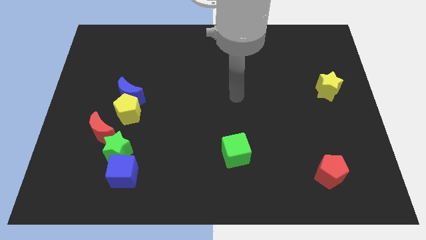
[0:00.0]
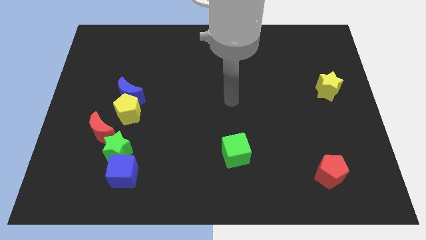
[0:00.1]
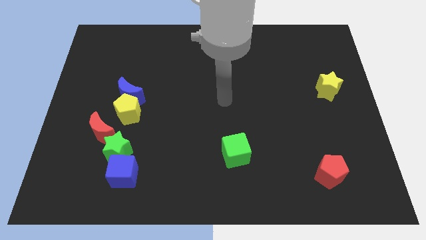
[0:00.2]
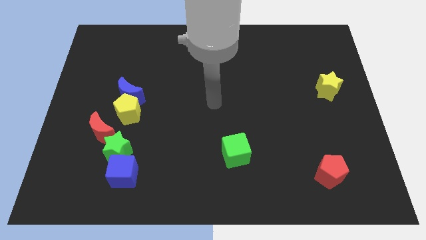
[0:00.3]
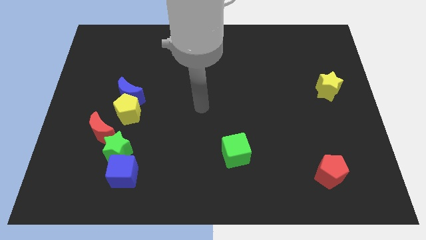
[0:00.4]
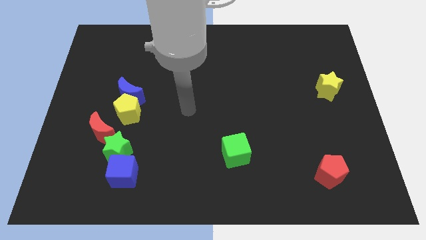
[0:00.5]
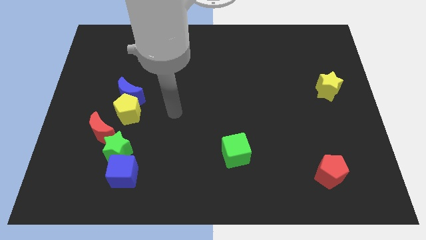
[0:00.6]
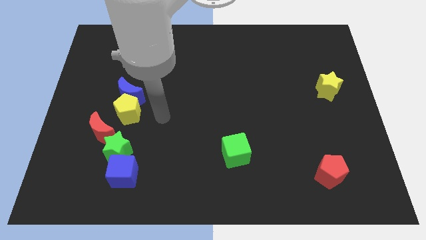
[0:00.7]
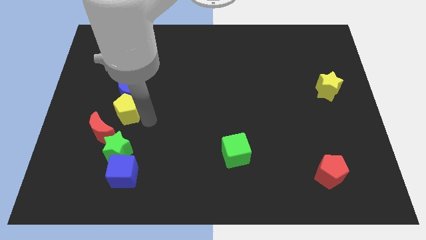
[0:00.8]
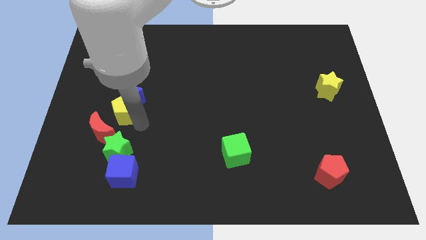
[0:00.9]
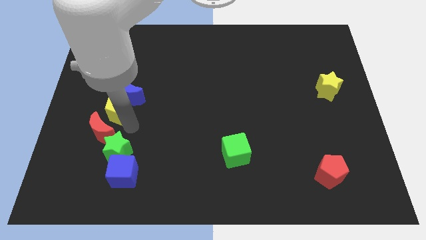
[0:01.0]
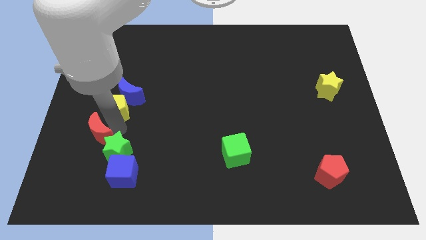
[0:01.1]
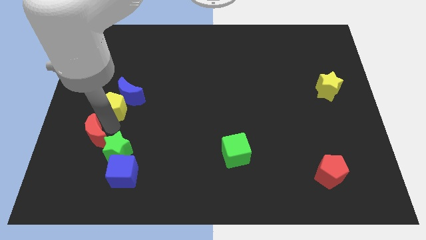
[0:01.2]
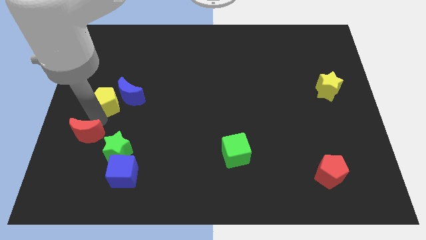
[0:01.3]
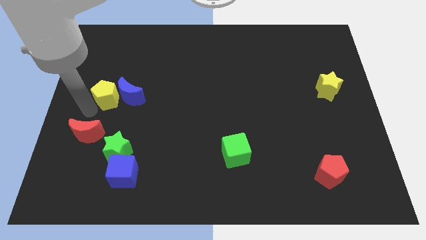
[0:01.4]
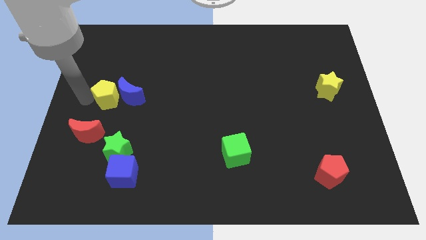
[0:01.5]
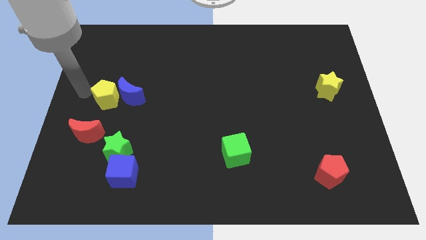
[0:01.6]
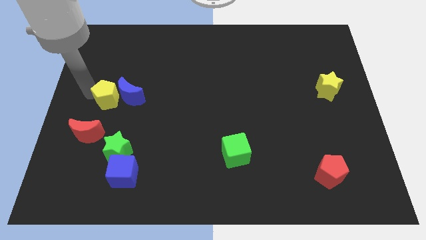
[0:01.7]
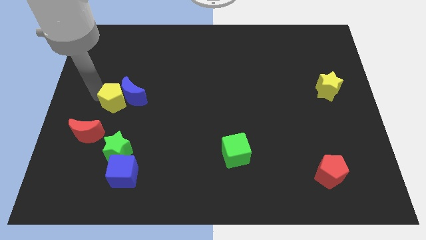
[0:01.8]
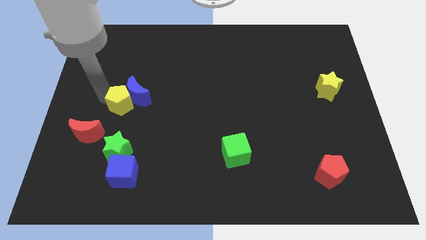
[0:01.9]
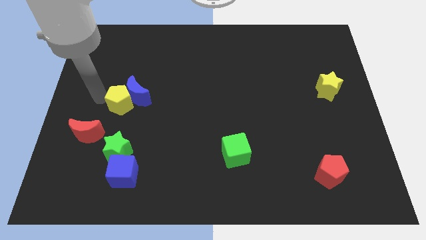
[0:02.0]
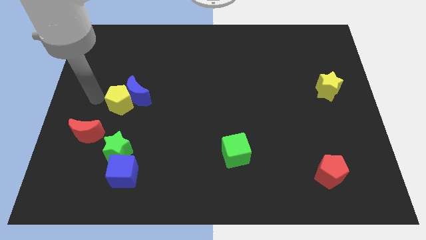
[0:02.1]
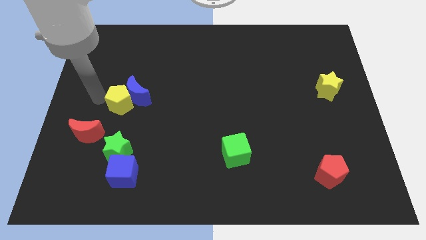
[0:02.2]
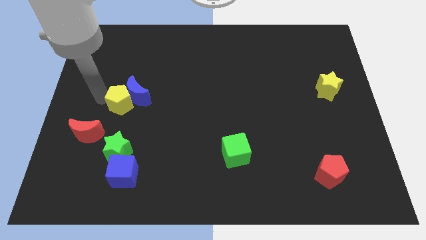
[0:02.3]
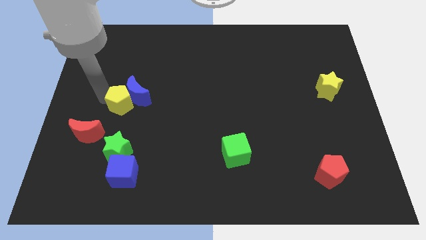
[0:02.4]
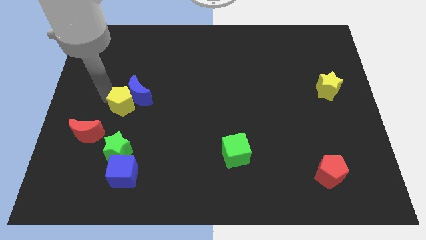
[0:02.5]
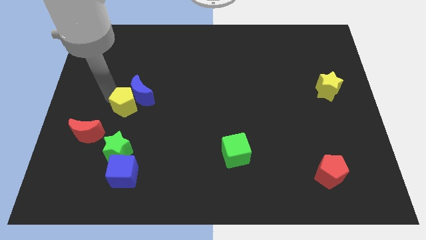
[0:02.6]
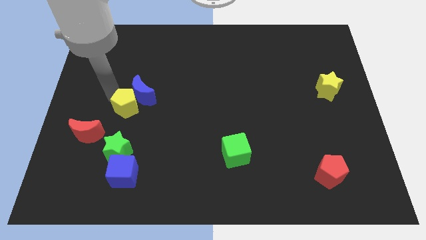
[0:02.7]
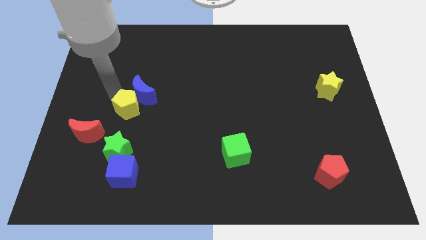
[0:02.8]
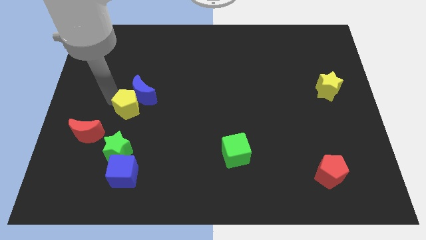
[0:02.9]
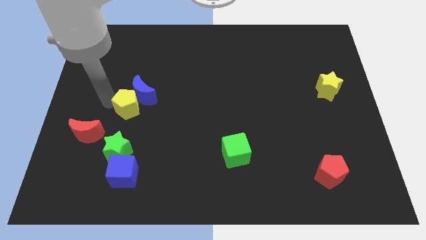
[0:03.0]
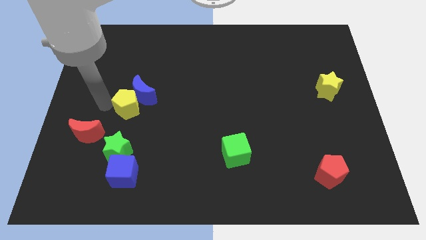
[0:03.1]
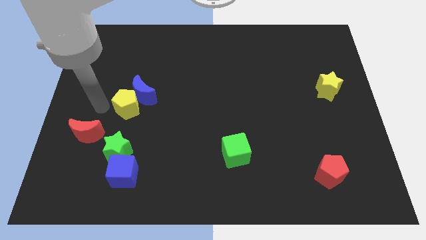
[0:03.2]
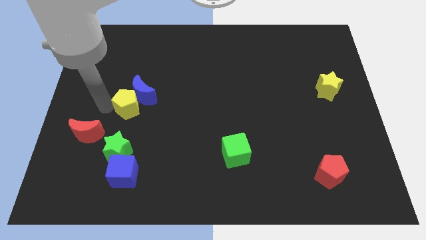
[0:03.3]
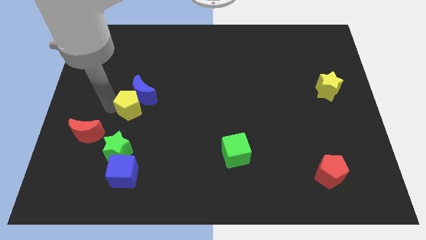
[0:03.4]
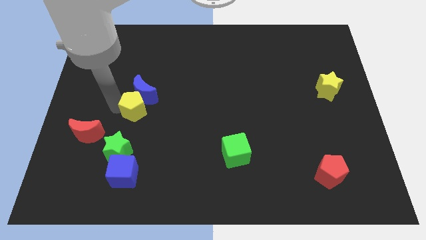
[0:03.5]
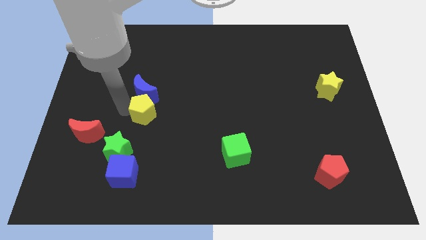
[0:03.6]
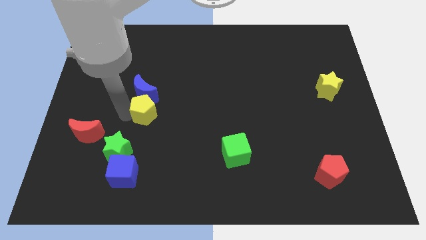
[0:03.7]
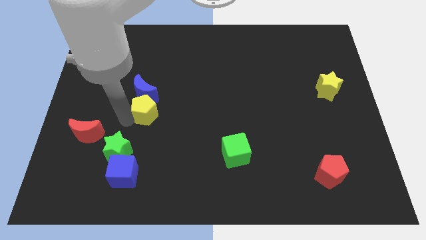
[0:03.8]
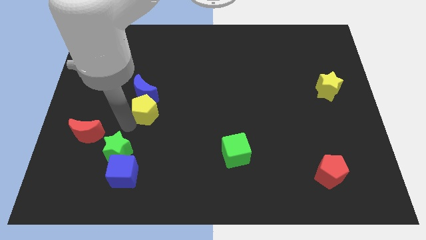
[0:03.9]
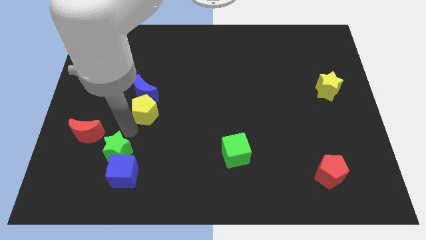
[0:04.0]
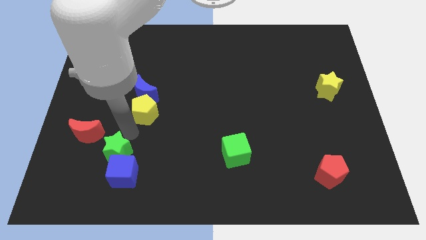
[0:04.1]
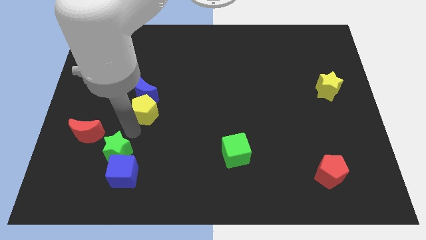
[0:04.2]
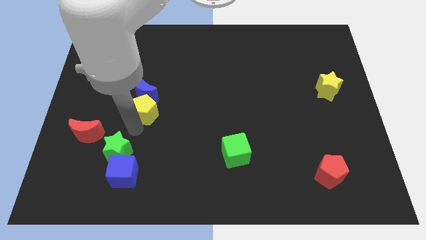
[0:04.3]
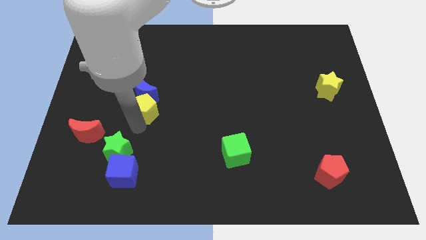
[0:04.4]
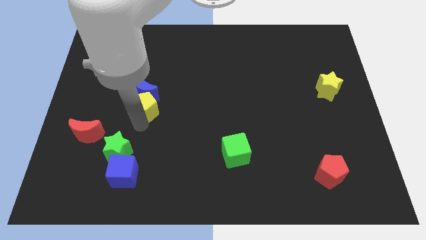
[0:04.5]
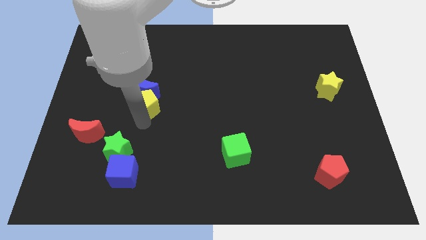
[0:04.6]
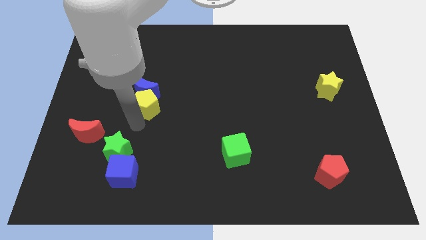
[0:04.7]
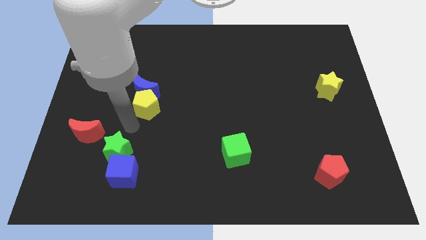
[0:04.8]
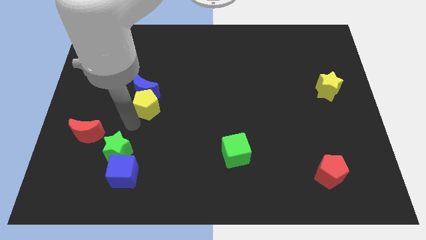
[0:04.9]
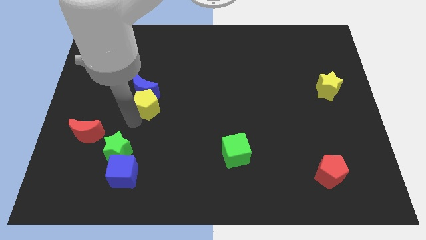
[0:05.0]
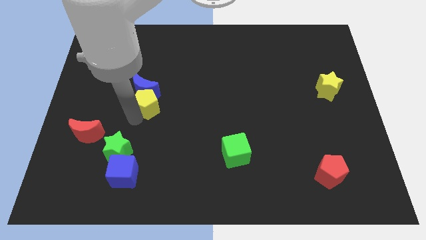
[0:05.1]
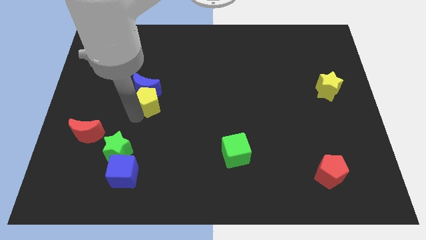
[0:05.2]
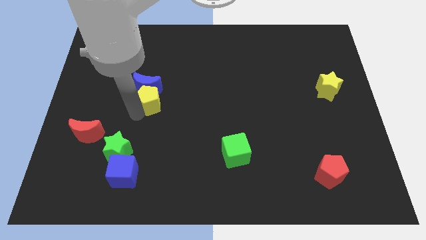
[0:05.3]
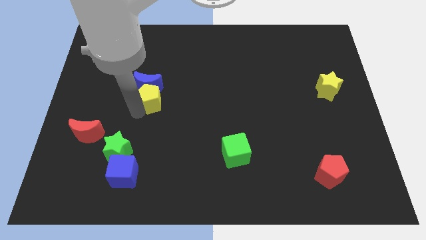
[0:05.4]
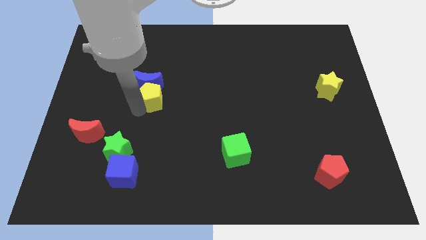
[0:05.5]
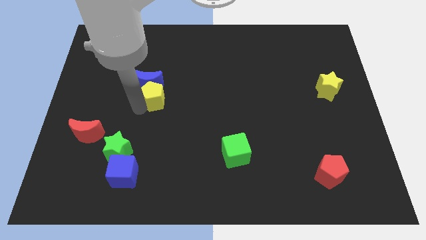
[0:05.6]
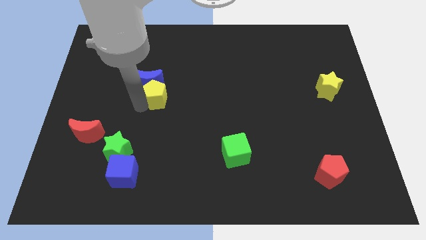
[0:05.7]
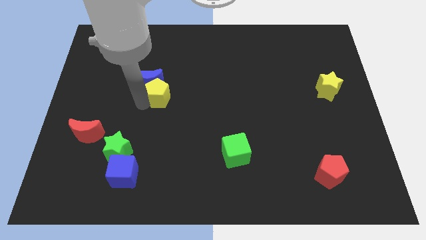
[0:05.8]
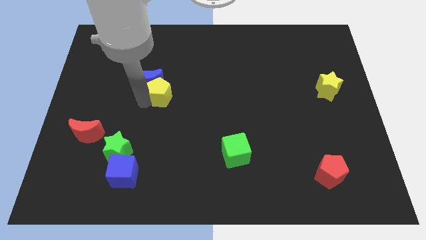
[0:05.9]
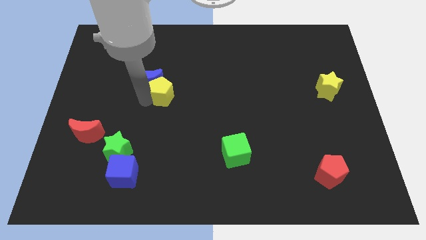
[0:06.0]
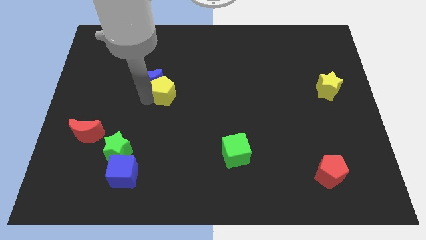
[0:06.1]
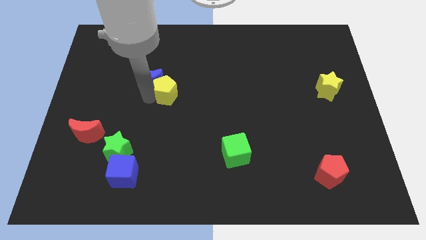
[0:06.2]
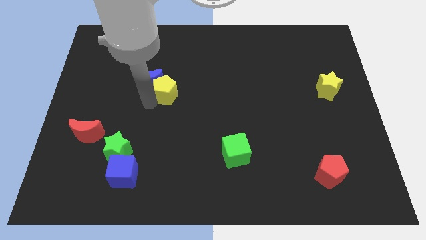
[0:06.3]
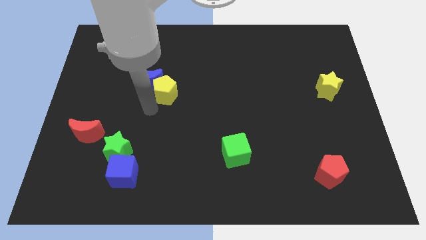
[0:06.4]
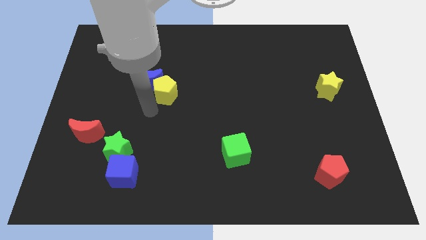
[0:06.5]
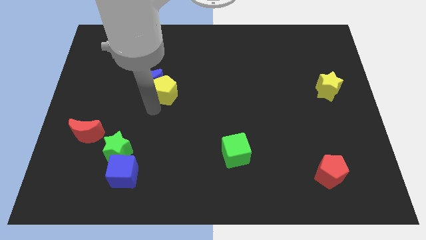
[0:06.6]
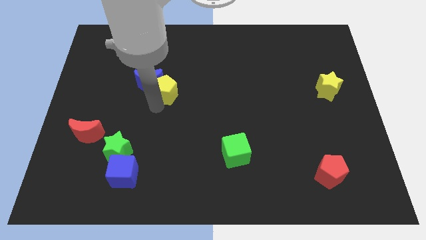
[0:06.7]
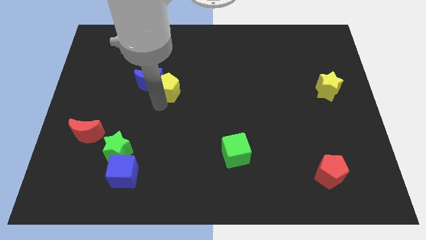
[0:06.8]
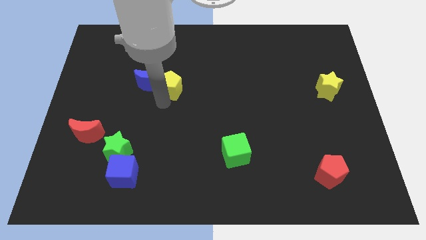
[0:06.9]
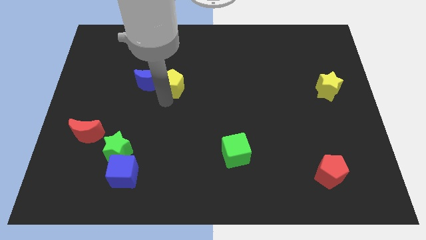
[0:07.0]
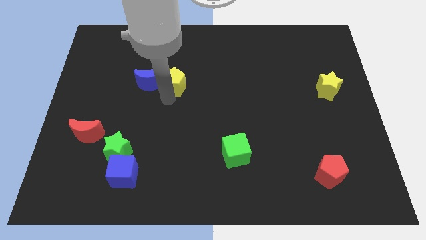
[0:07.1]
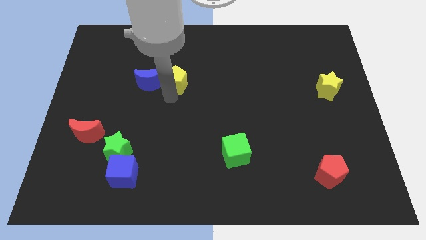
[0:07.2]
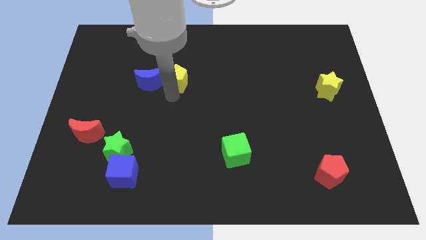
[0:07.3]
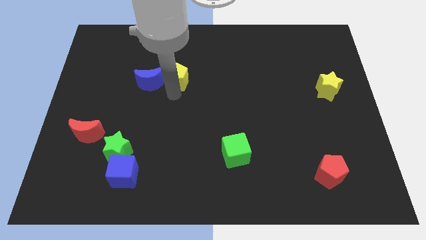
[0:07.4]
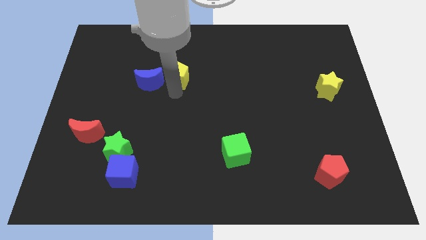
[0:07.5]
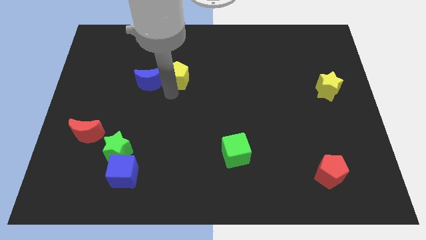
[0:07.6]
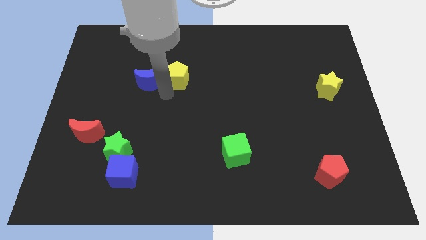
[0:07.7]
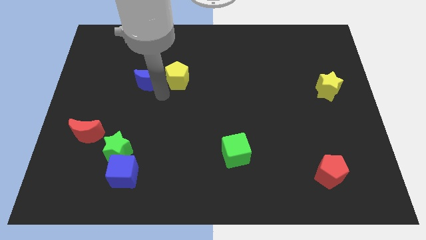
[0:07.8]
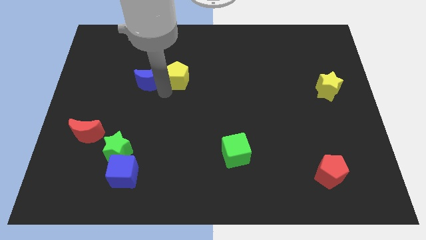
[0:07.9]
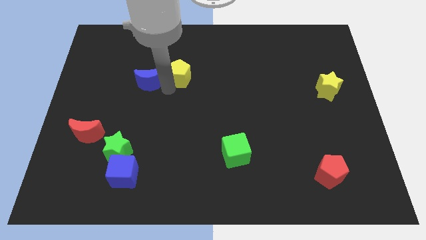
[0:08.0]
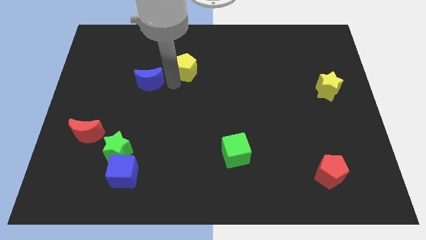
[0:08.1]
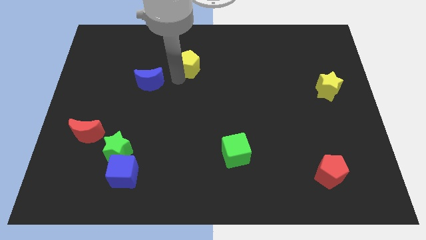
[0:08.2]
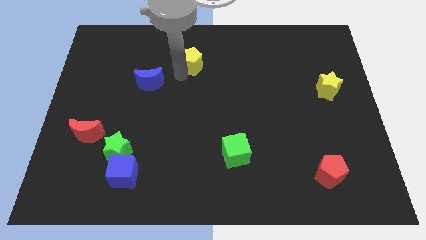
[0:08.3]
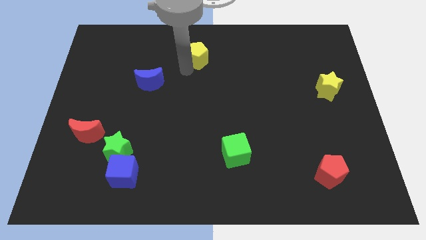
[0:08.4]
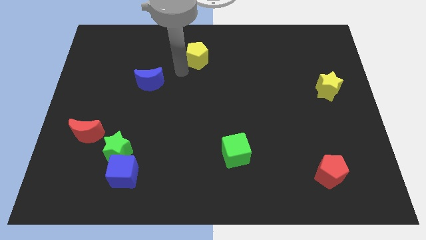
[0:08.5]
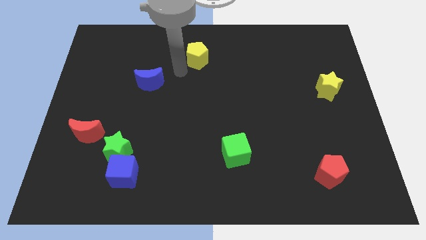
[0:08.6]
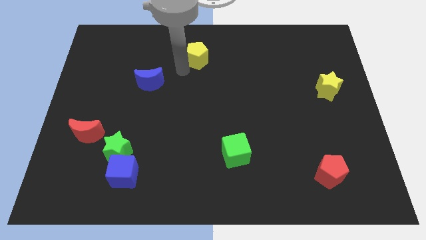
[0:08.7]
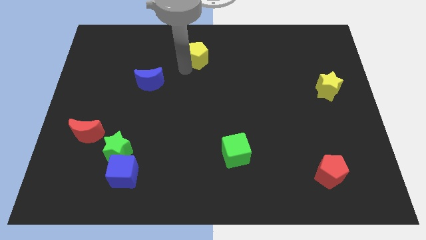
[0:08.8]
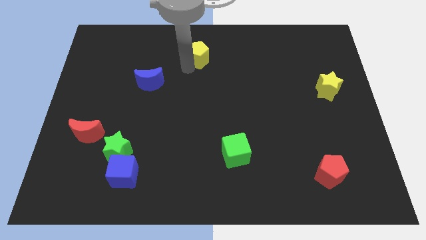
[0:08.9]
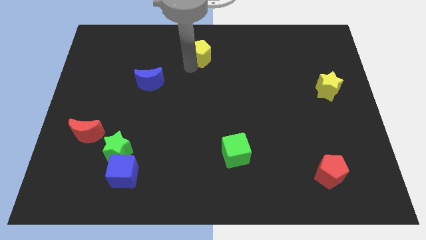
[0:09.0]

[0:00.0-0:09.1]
slide the yellow pentagon to the top side
